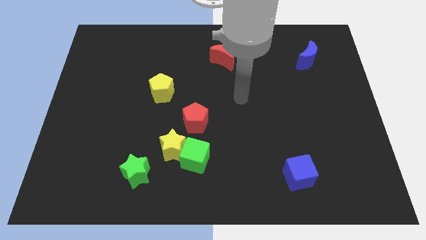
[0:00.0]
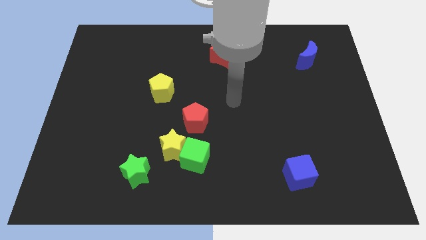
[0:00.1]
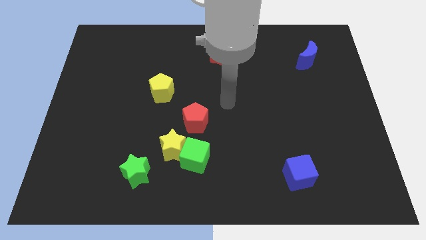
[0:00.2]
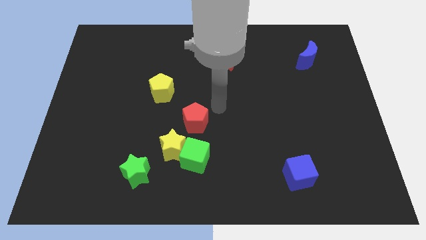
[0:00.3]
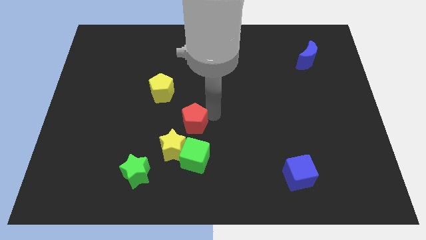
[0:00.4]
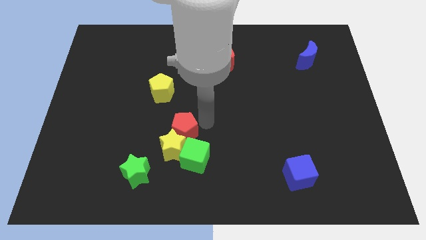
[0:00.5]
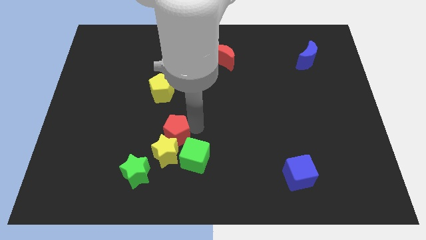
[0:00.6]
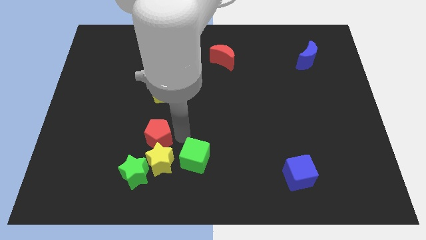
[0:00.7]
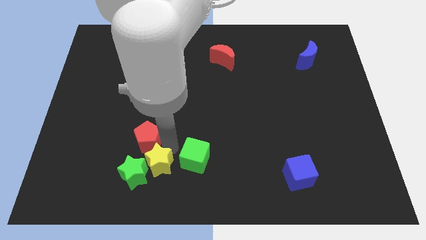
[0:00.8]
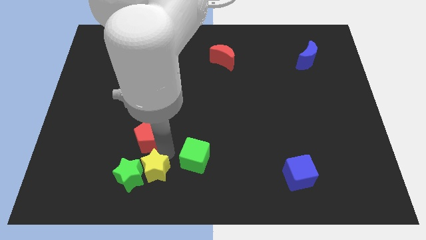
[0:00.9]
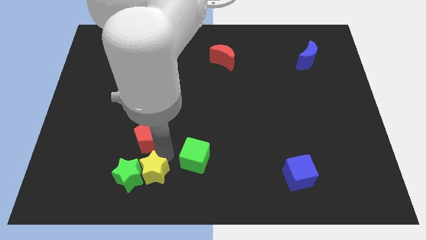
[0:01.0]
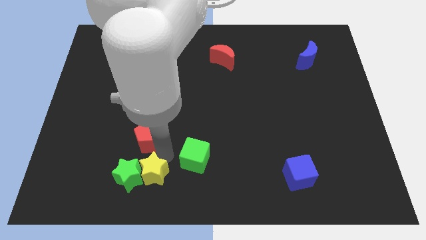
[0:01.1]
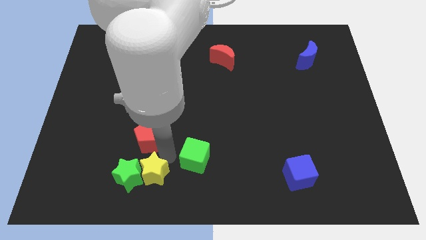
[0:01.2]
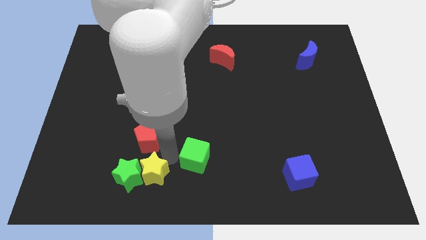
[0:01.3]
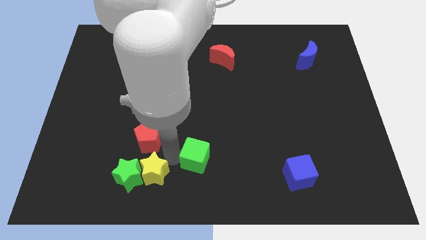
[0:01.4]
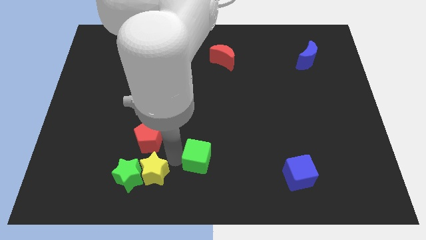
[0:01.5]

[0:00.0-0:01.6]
separate the green cube from the yellow star and red pentagon

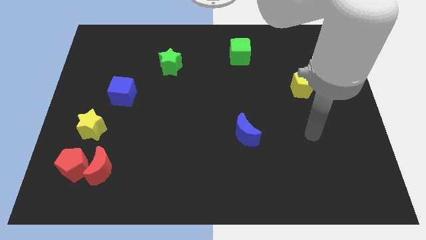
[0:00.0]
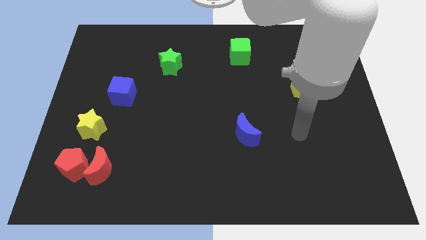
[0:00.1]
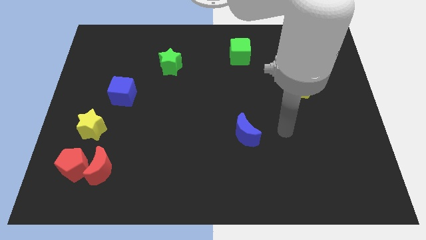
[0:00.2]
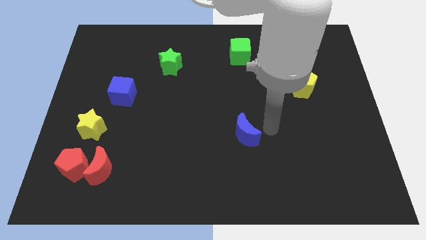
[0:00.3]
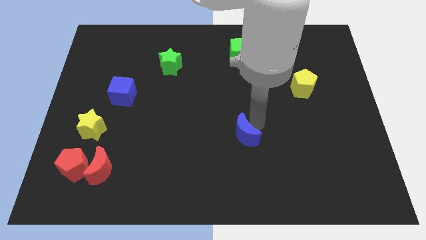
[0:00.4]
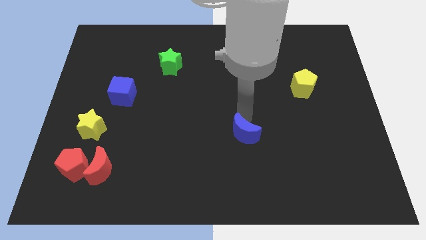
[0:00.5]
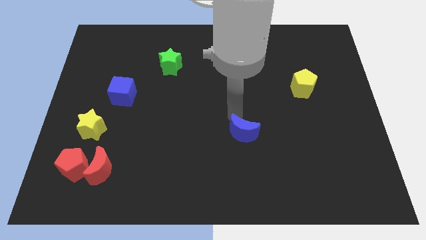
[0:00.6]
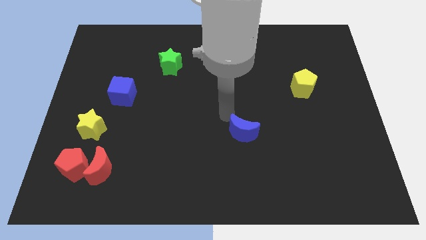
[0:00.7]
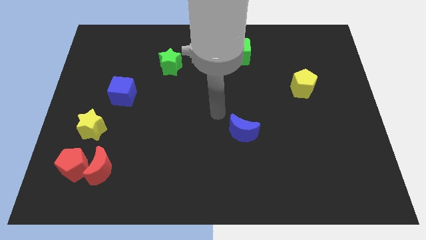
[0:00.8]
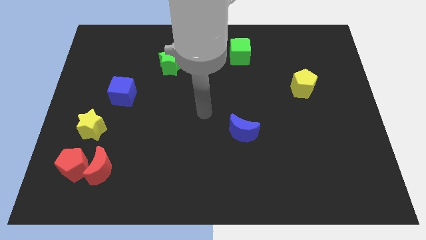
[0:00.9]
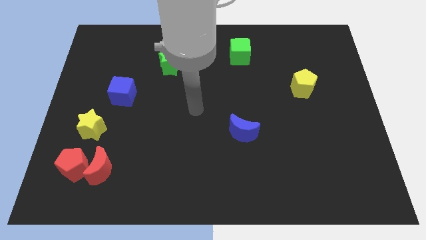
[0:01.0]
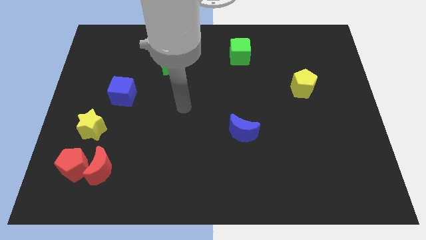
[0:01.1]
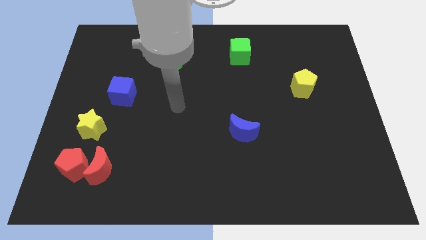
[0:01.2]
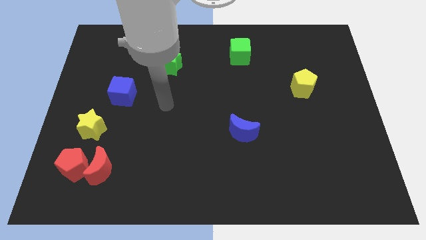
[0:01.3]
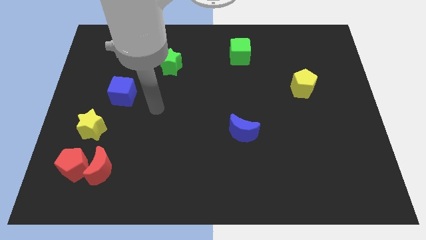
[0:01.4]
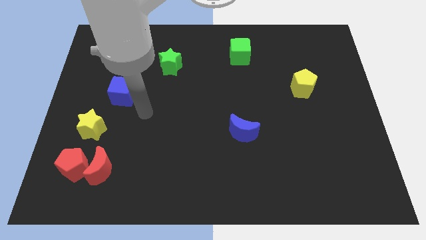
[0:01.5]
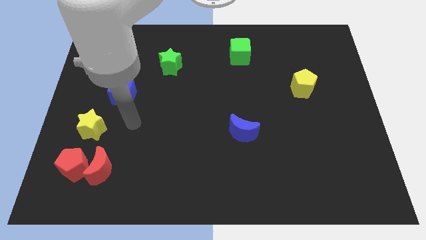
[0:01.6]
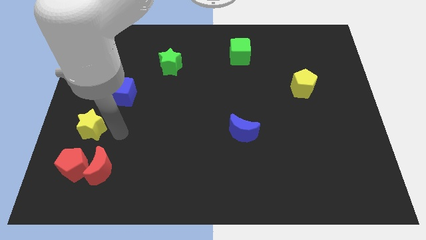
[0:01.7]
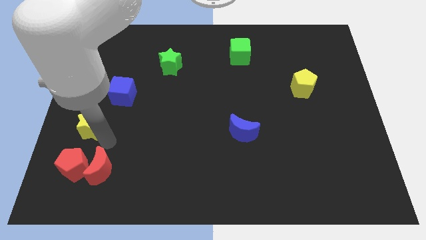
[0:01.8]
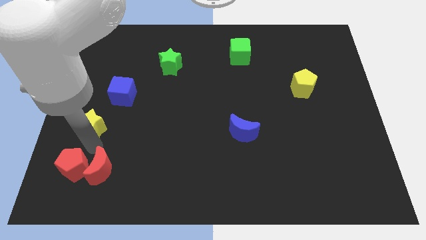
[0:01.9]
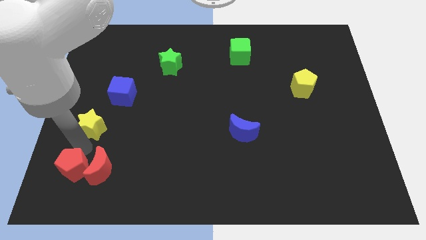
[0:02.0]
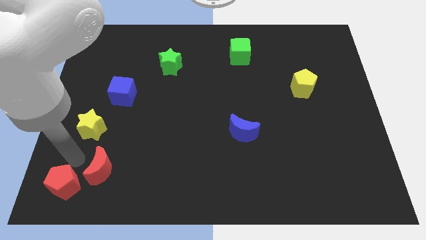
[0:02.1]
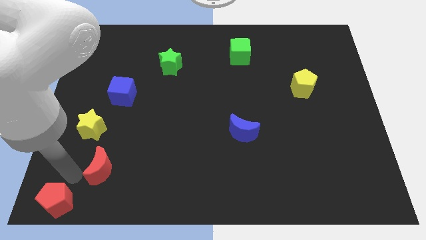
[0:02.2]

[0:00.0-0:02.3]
separate the red moon from the red pentagon

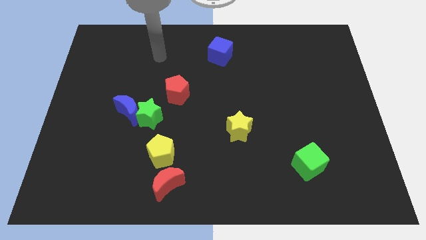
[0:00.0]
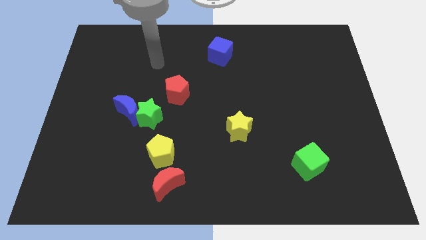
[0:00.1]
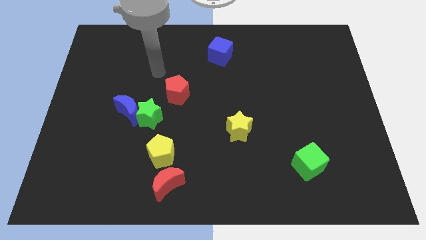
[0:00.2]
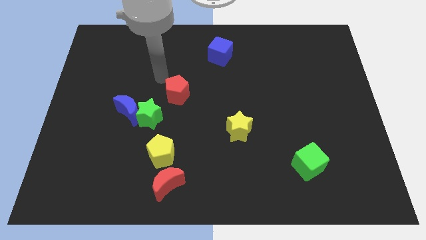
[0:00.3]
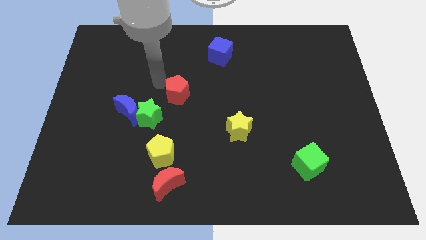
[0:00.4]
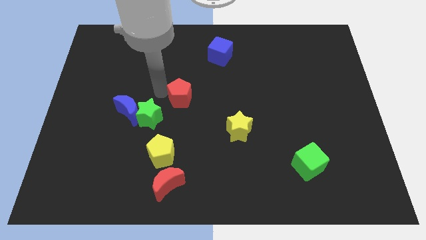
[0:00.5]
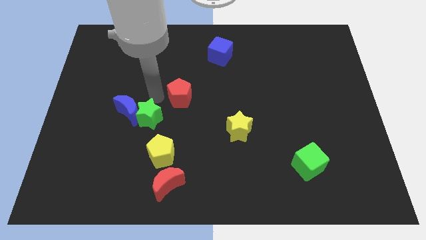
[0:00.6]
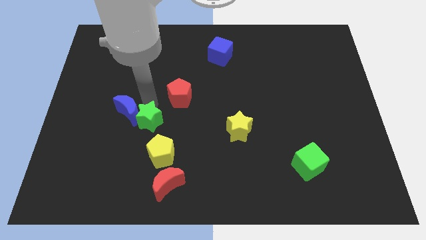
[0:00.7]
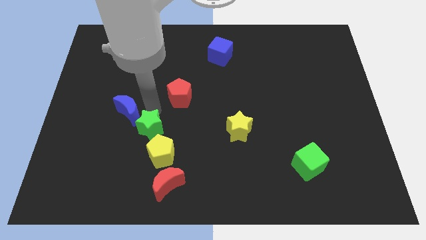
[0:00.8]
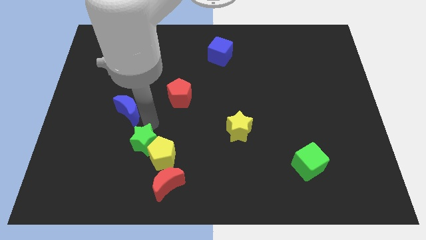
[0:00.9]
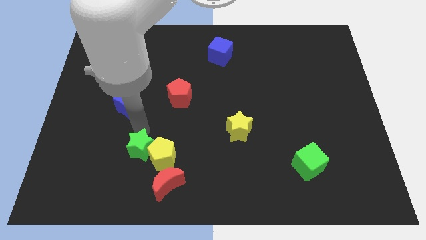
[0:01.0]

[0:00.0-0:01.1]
separate the blue moon from the green star

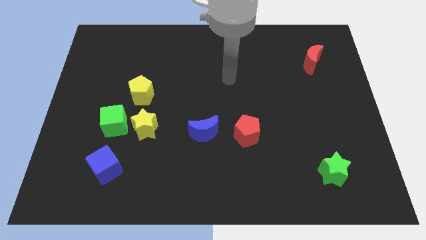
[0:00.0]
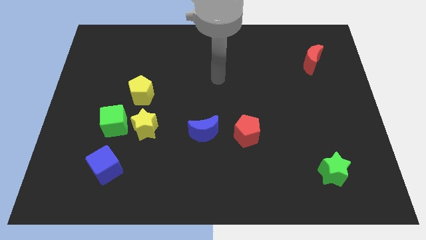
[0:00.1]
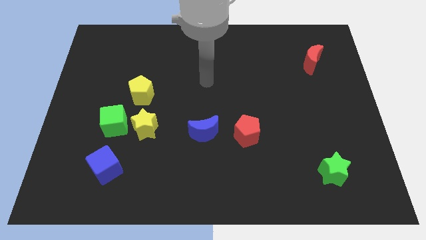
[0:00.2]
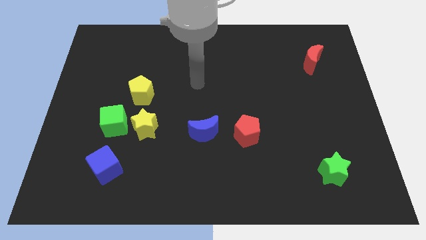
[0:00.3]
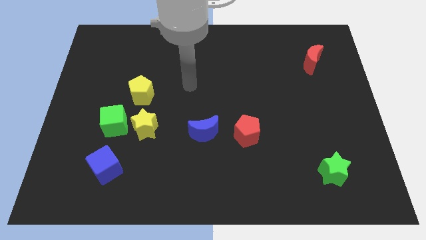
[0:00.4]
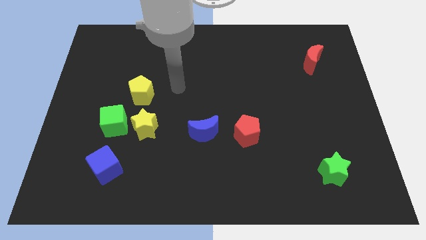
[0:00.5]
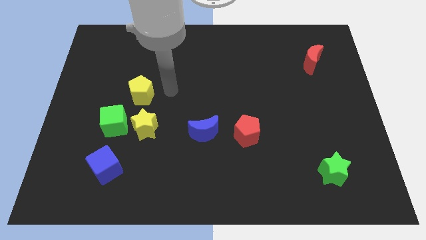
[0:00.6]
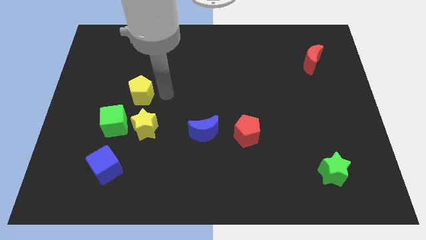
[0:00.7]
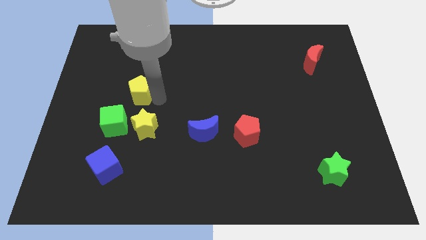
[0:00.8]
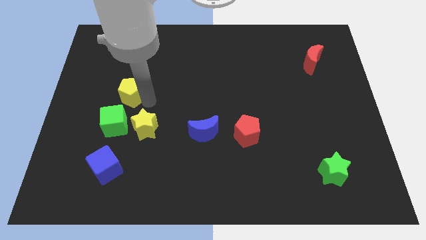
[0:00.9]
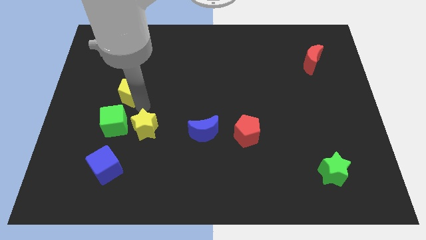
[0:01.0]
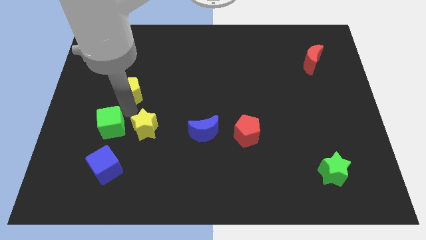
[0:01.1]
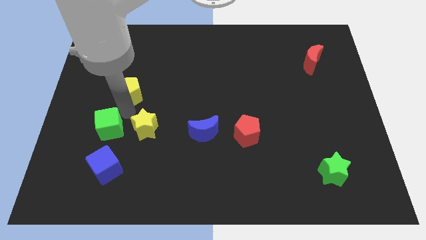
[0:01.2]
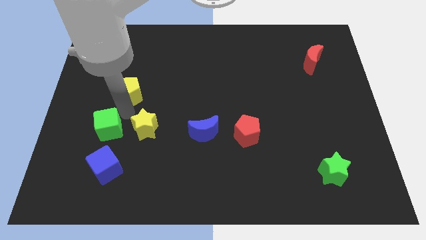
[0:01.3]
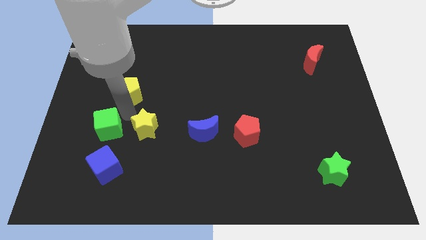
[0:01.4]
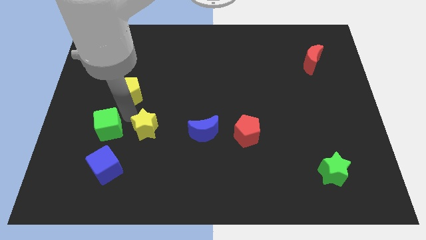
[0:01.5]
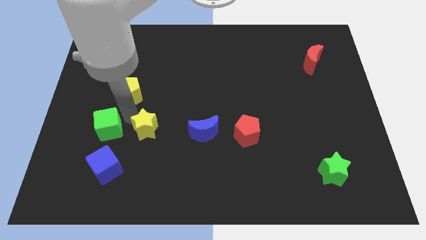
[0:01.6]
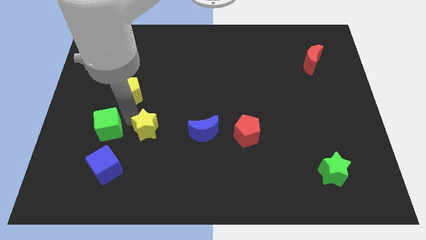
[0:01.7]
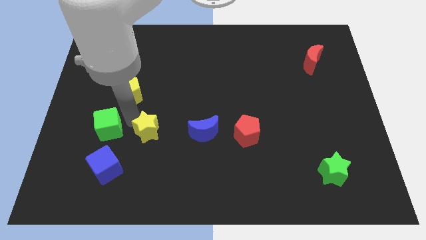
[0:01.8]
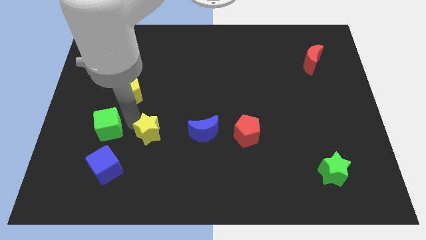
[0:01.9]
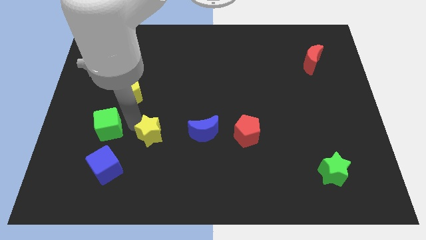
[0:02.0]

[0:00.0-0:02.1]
move the yellow star away from the green cube and yellow pentagon

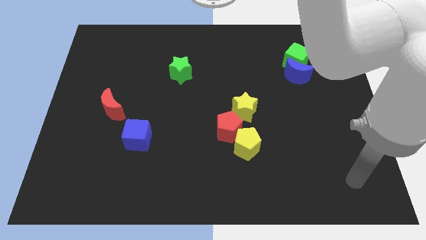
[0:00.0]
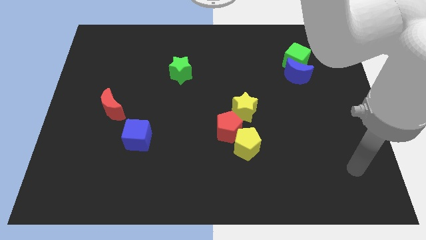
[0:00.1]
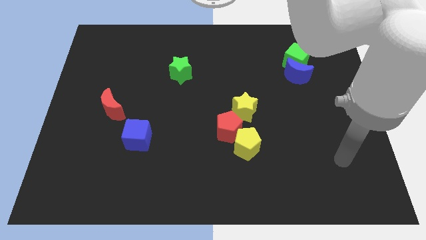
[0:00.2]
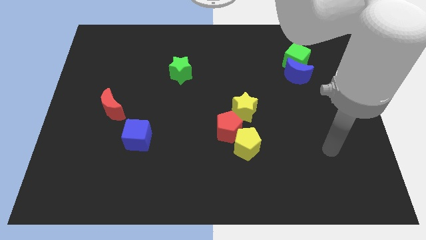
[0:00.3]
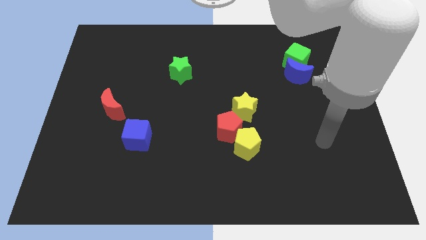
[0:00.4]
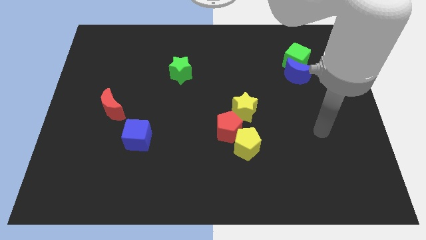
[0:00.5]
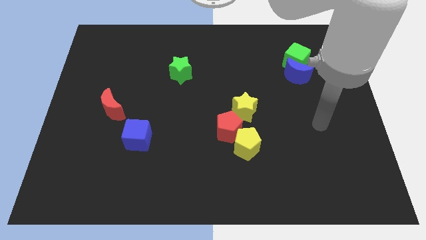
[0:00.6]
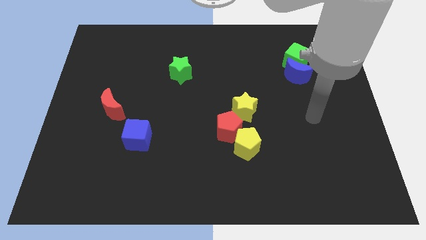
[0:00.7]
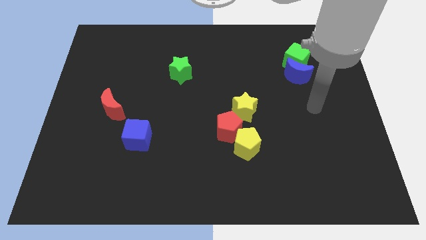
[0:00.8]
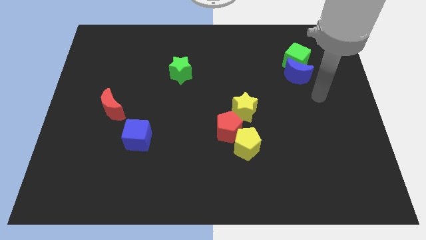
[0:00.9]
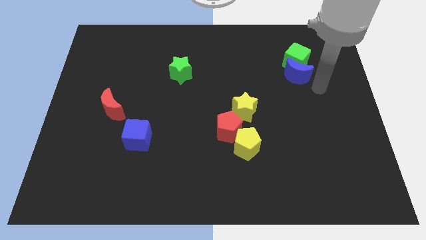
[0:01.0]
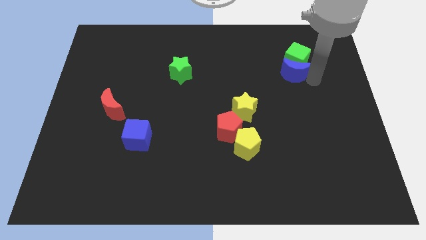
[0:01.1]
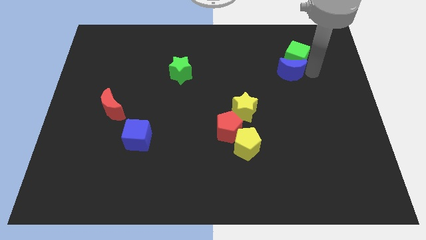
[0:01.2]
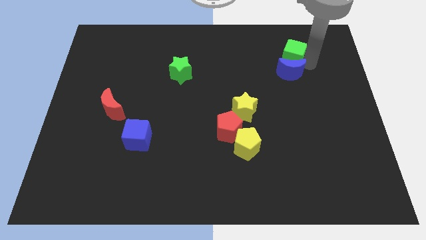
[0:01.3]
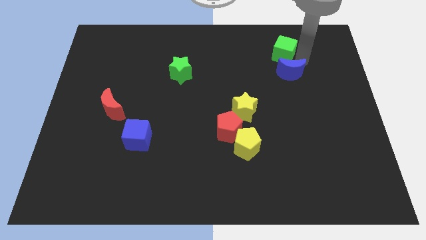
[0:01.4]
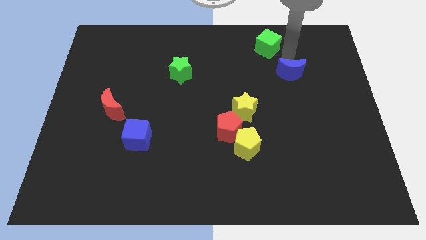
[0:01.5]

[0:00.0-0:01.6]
pull the blue moon apart from the green cube

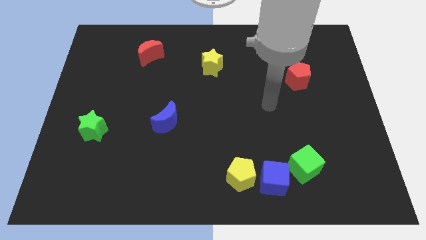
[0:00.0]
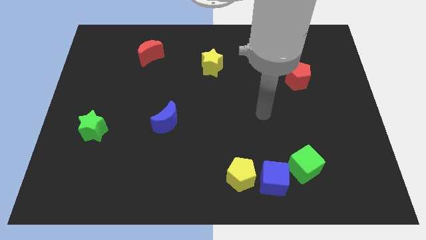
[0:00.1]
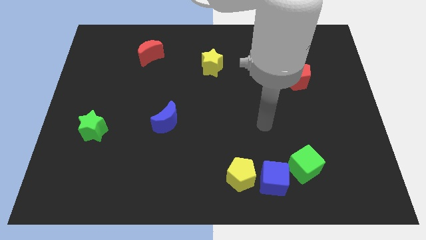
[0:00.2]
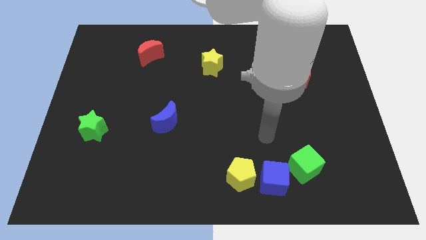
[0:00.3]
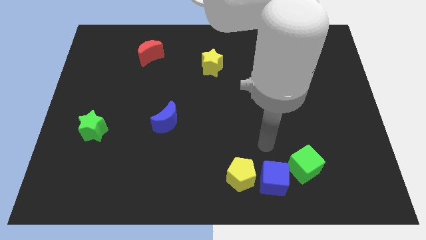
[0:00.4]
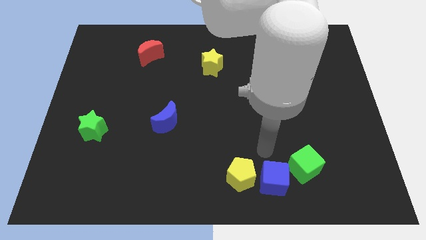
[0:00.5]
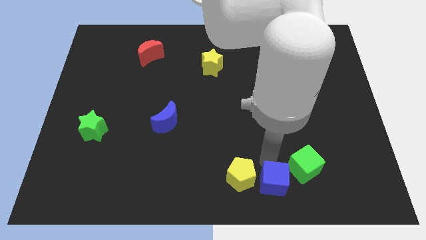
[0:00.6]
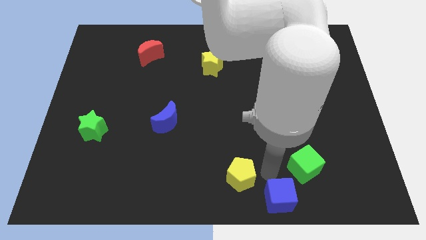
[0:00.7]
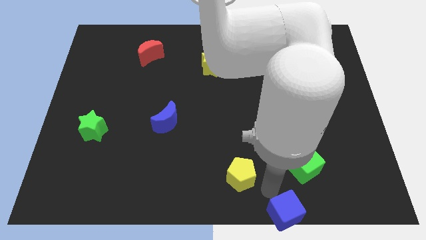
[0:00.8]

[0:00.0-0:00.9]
move the yellow pentagon away from the blue cube
